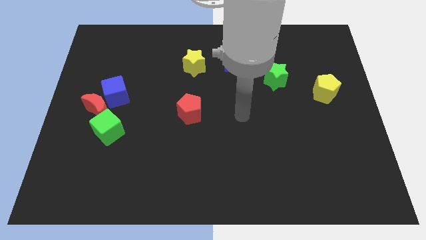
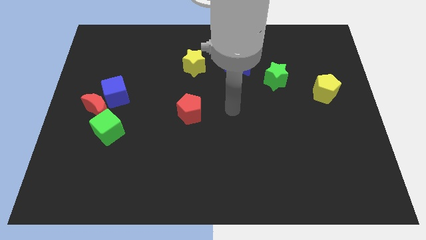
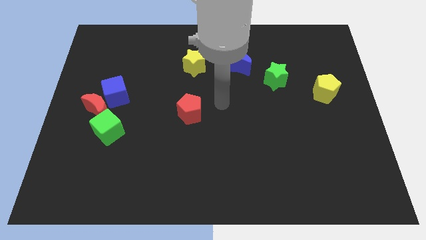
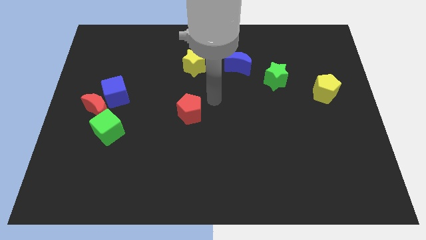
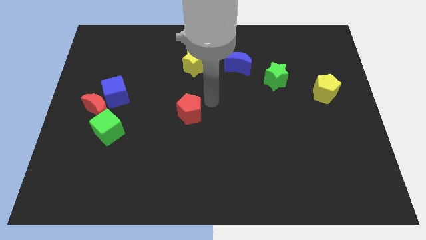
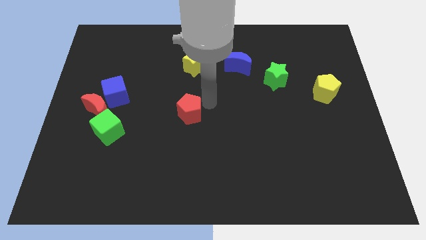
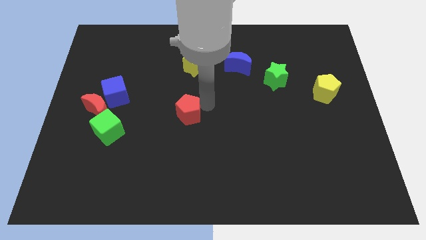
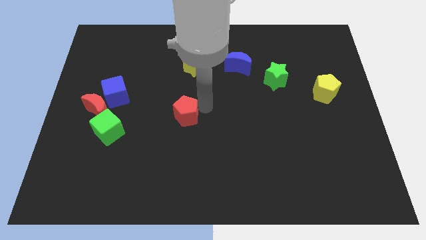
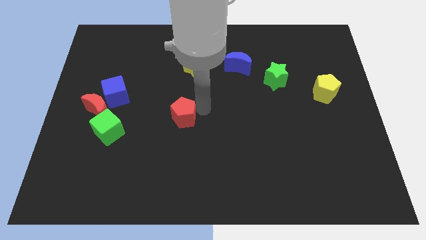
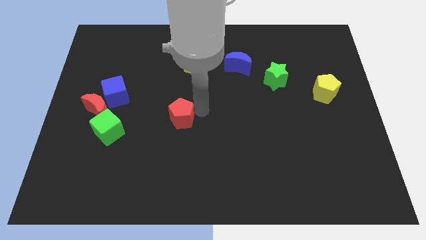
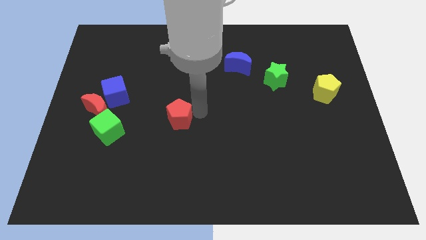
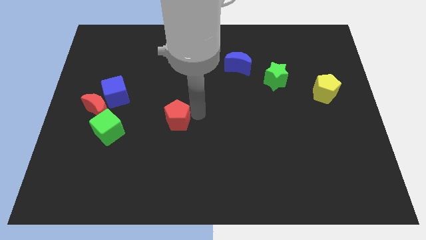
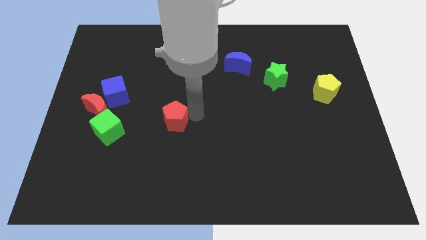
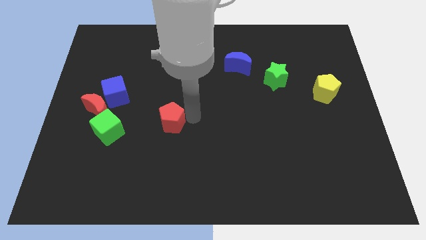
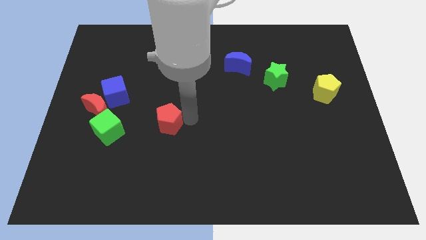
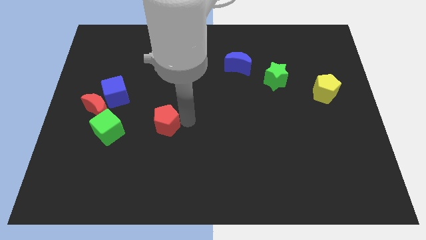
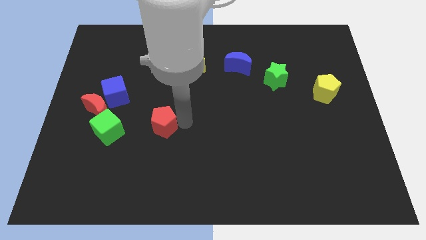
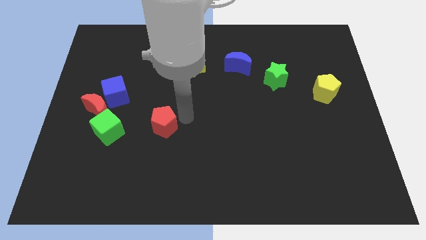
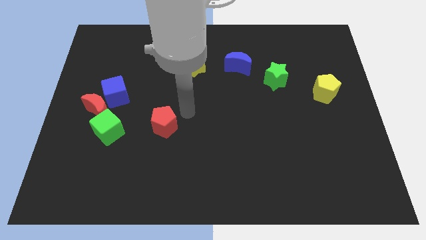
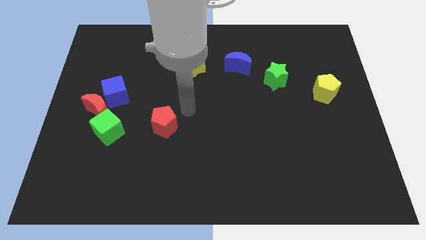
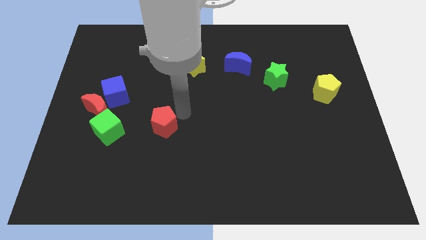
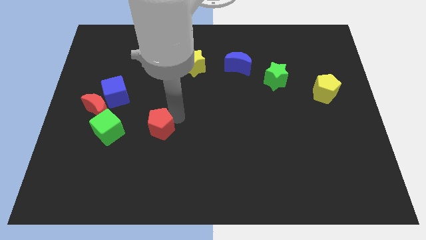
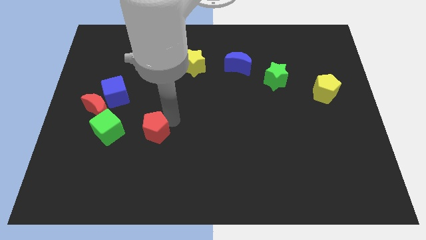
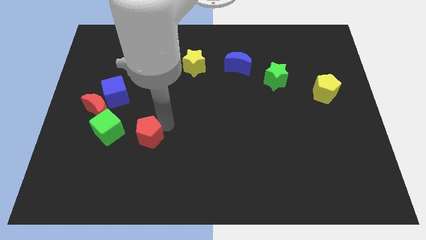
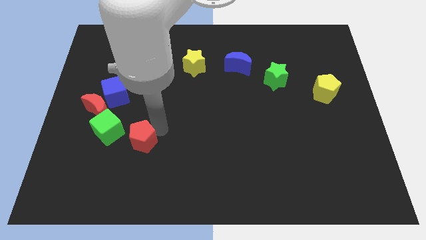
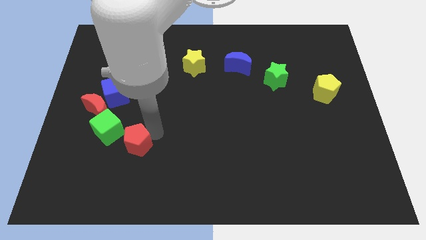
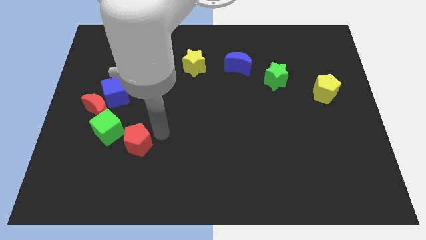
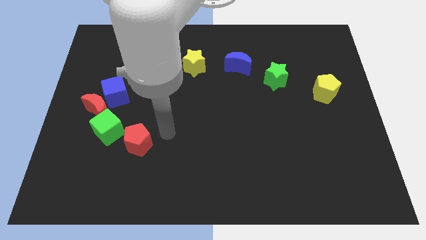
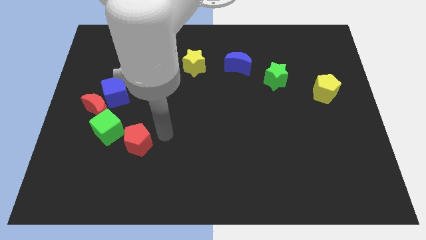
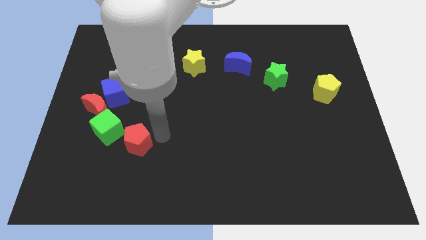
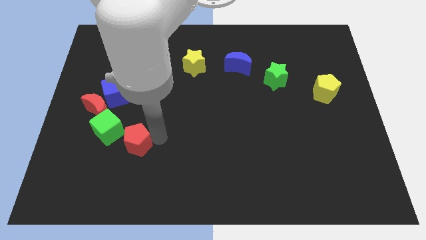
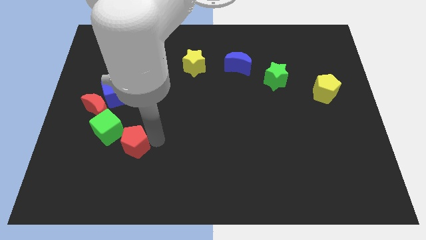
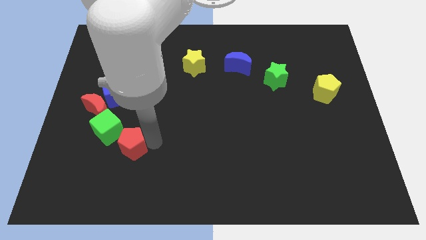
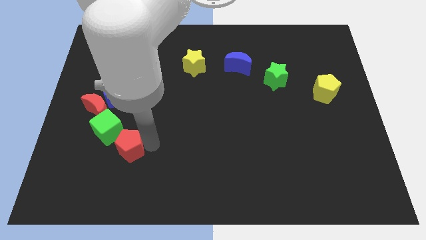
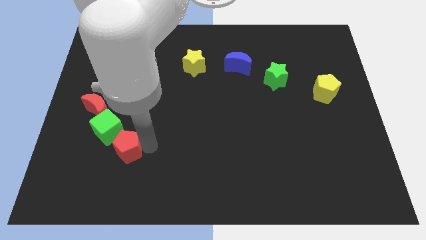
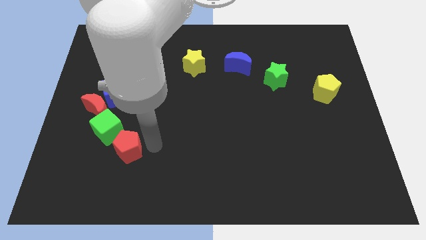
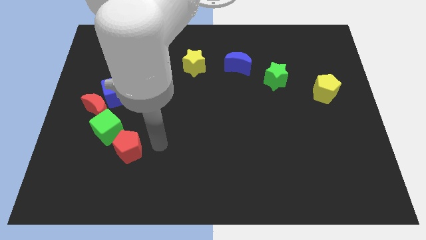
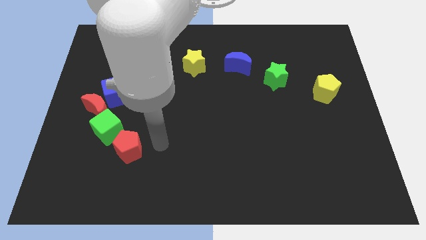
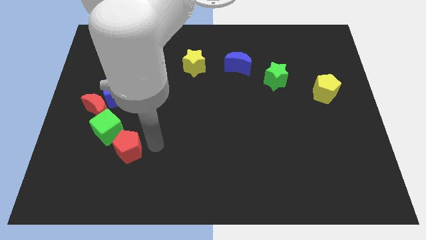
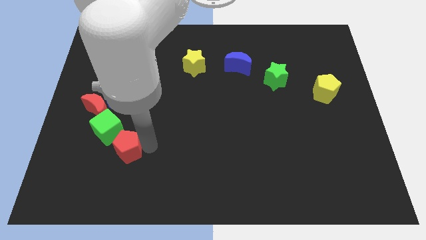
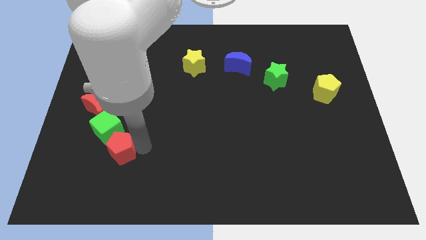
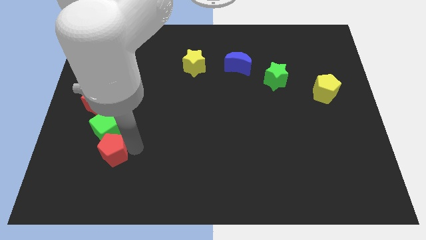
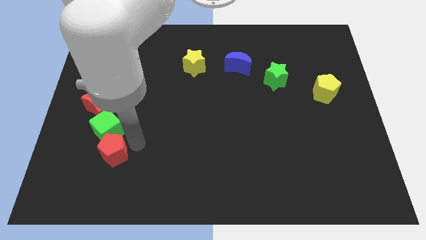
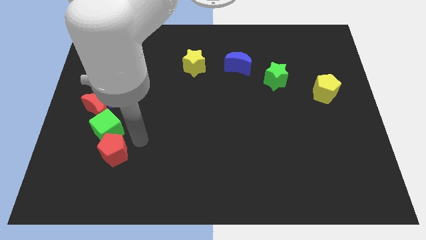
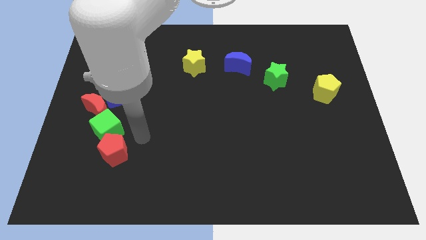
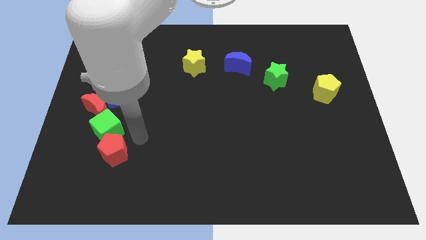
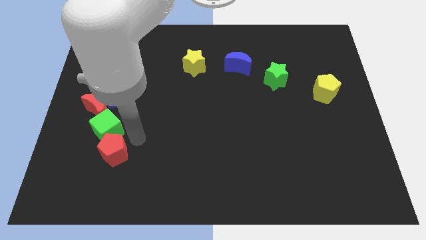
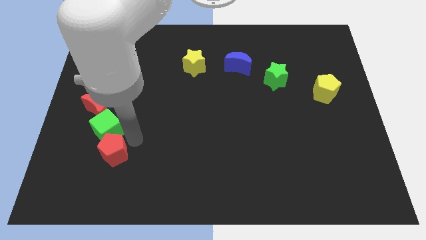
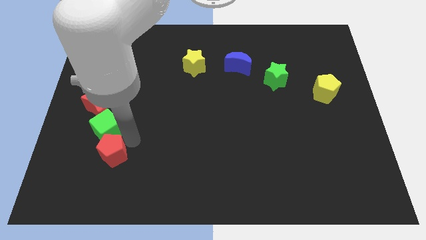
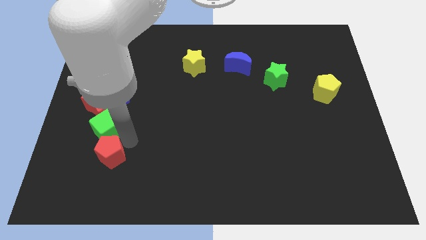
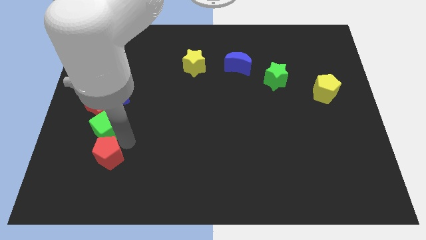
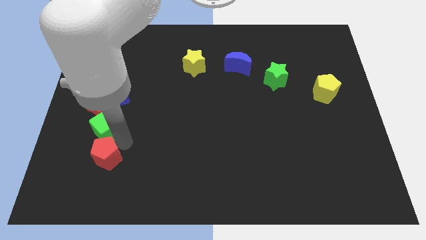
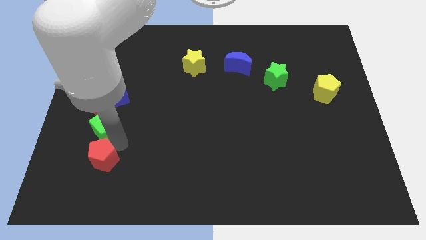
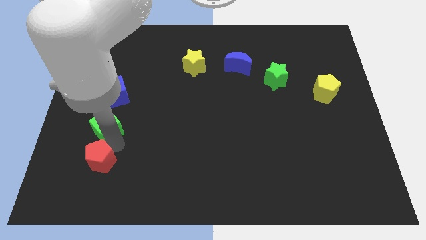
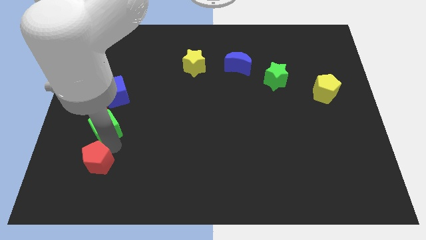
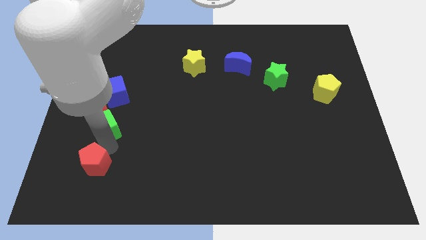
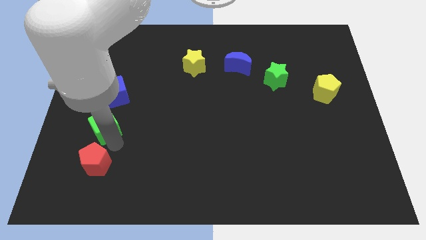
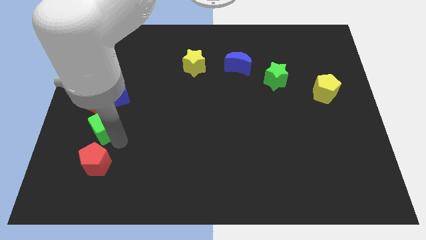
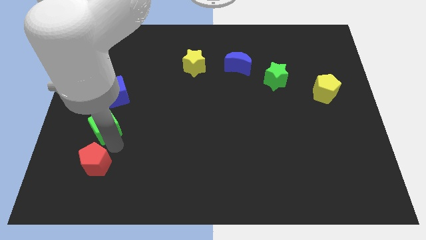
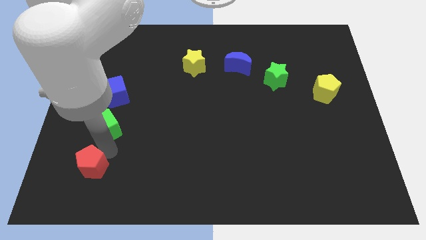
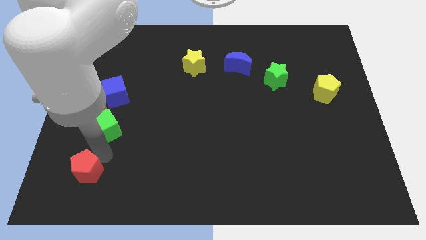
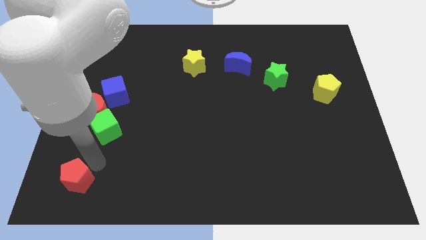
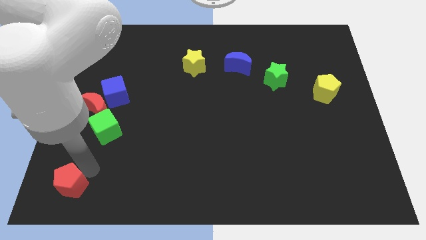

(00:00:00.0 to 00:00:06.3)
move the red pentagon to the bottom left
